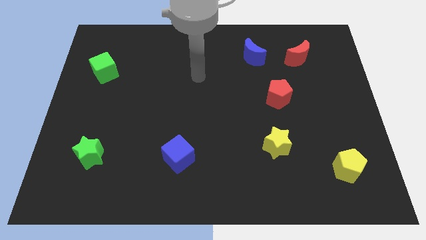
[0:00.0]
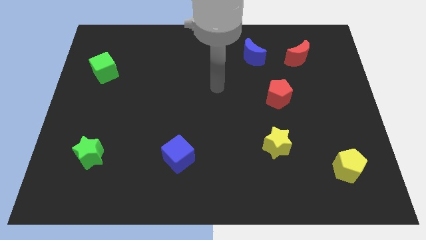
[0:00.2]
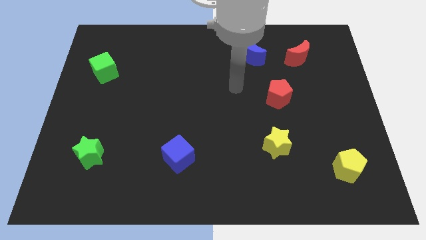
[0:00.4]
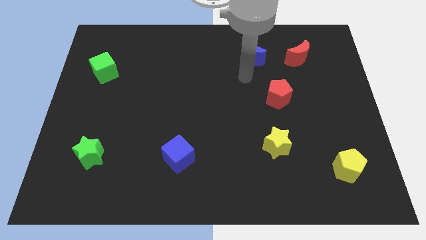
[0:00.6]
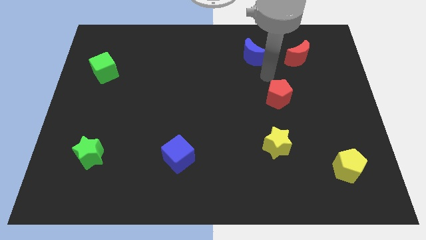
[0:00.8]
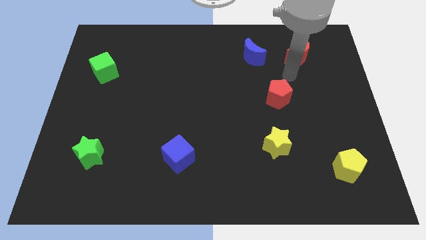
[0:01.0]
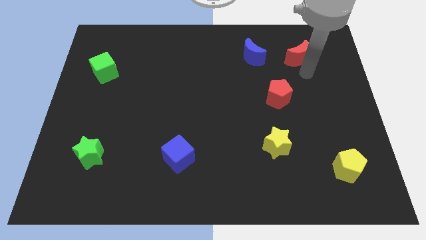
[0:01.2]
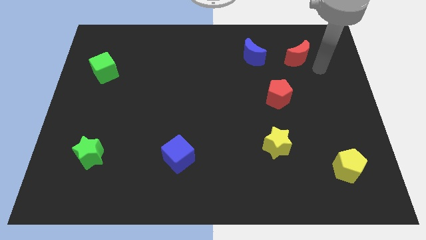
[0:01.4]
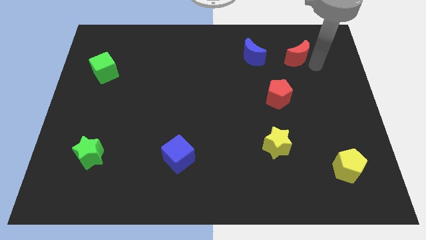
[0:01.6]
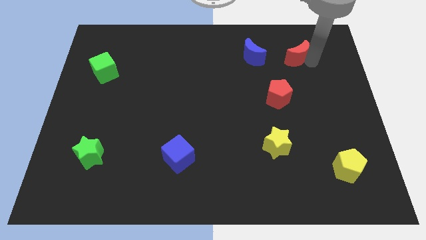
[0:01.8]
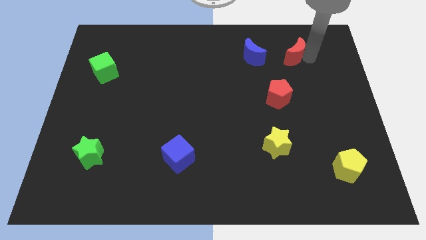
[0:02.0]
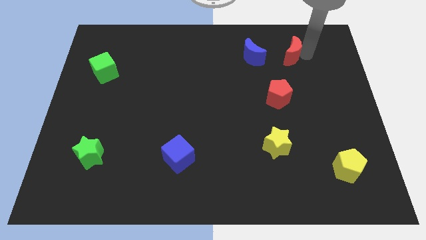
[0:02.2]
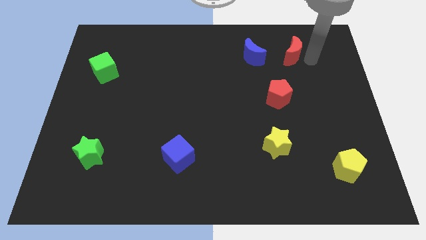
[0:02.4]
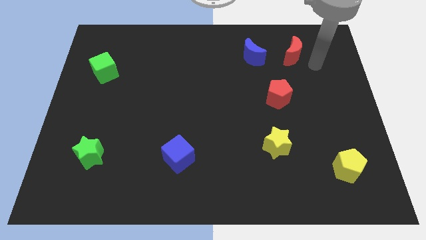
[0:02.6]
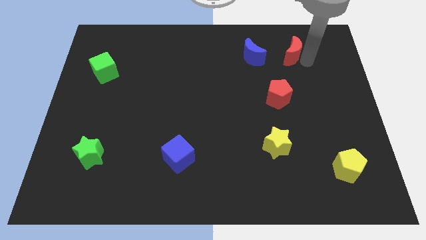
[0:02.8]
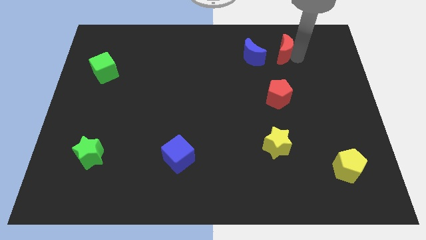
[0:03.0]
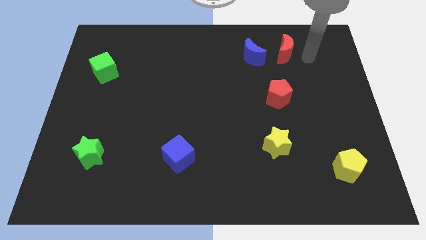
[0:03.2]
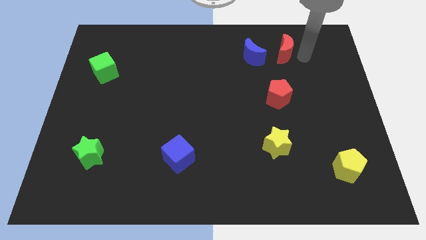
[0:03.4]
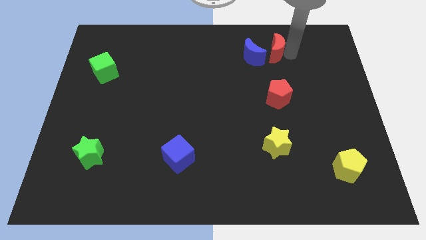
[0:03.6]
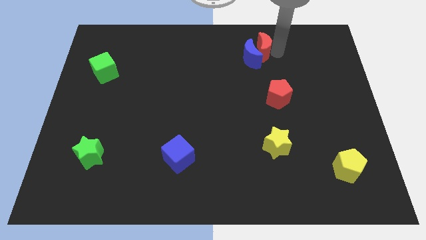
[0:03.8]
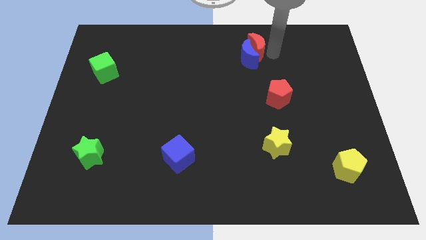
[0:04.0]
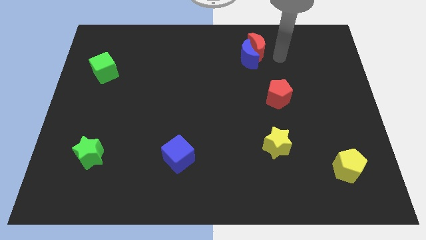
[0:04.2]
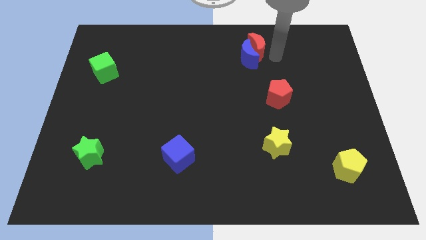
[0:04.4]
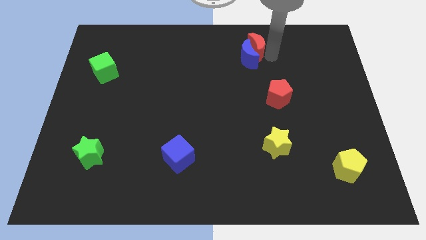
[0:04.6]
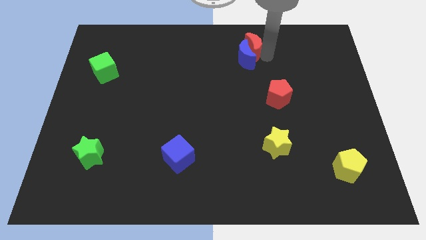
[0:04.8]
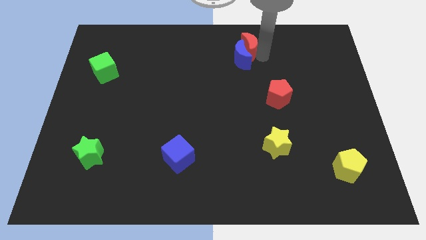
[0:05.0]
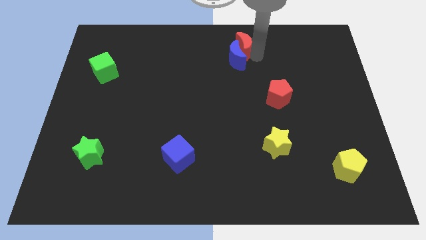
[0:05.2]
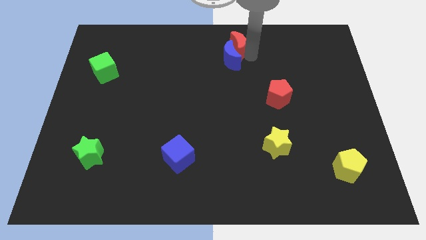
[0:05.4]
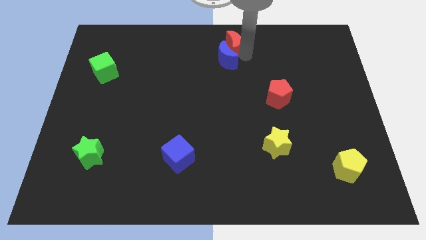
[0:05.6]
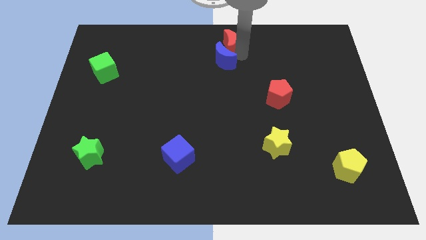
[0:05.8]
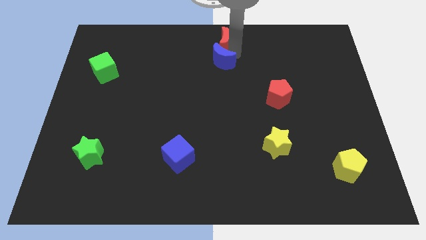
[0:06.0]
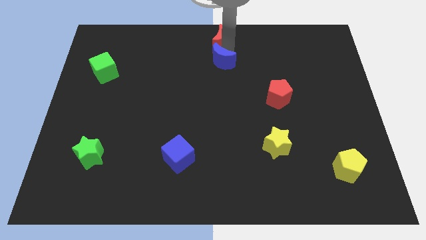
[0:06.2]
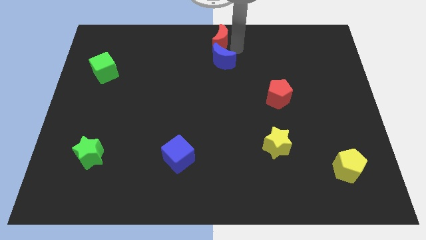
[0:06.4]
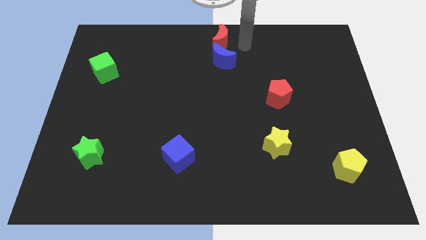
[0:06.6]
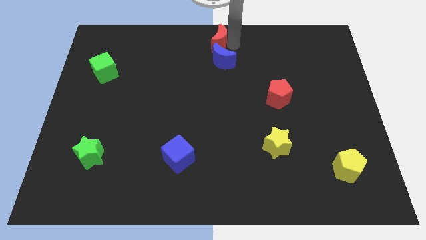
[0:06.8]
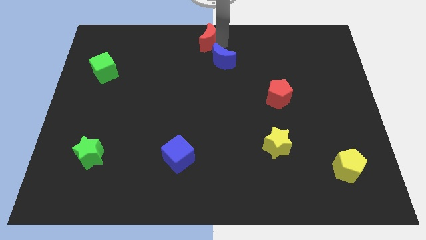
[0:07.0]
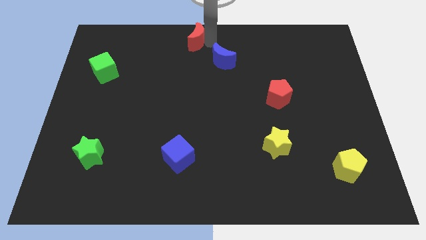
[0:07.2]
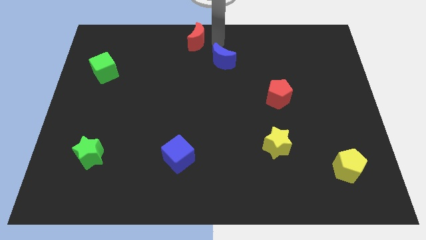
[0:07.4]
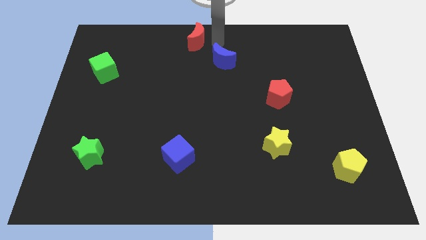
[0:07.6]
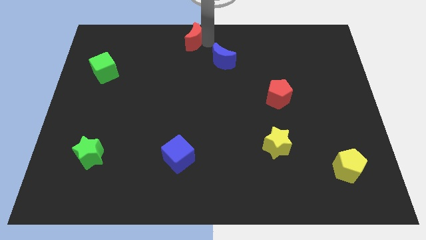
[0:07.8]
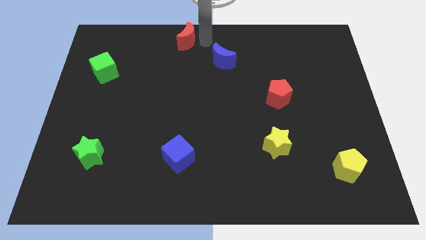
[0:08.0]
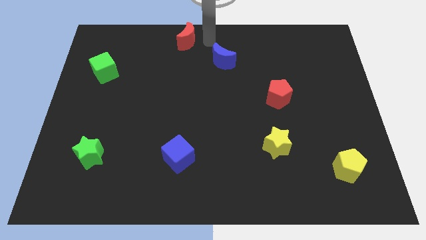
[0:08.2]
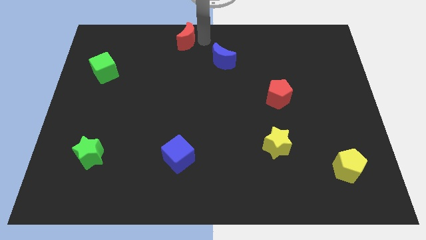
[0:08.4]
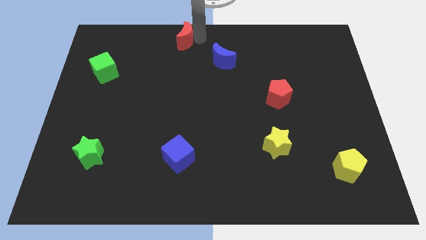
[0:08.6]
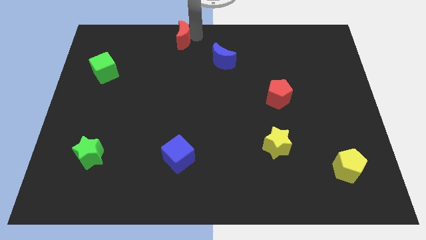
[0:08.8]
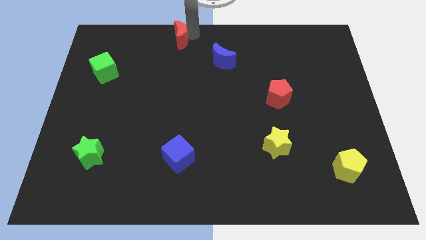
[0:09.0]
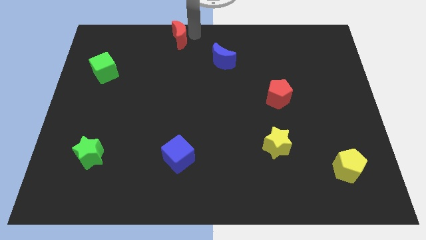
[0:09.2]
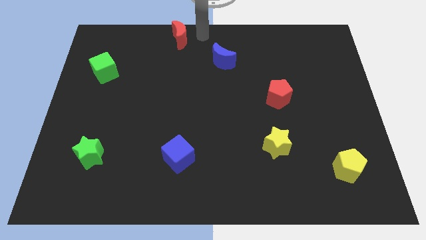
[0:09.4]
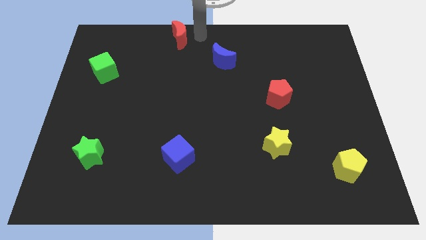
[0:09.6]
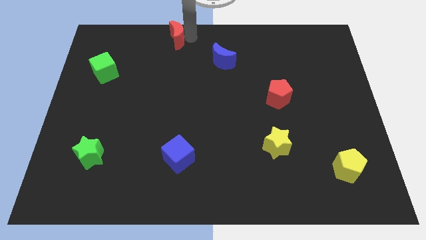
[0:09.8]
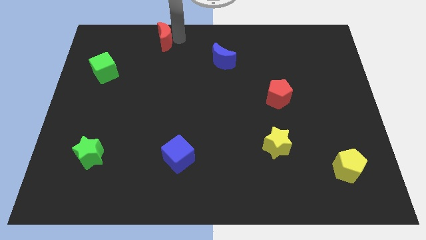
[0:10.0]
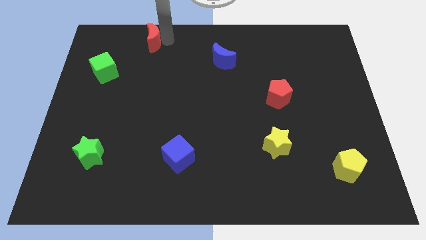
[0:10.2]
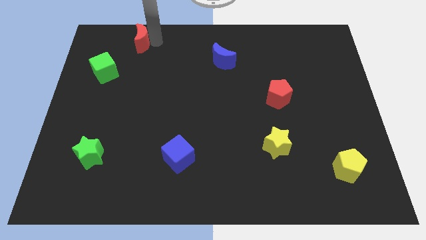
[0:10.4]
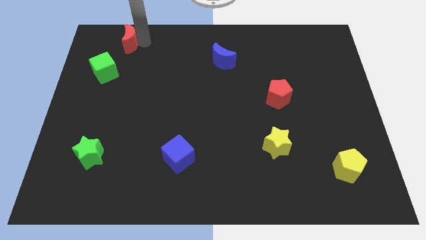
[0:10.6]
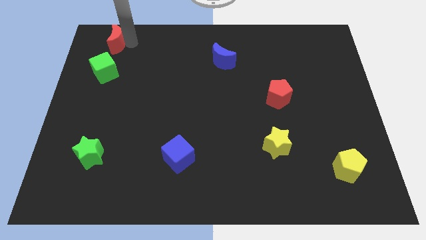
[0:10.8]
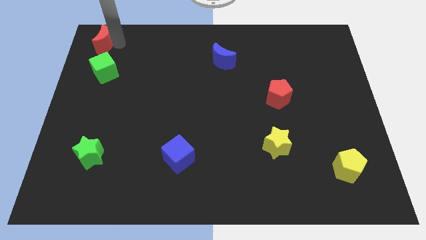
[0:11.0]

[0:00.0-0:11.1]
push the red moon to the top left of the board
